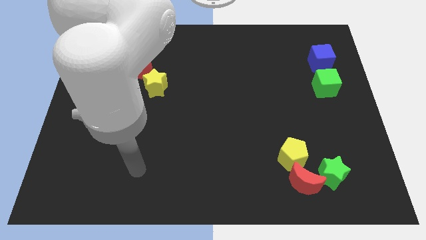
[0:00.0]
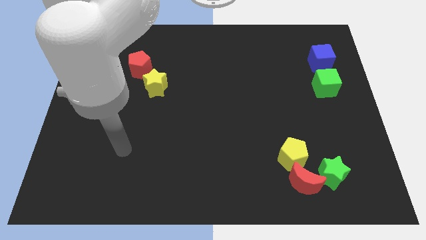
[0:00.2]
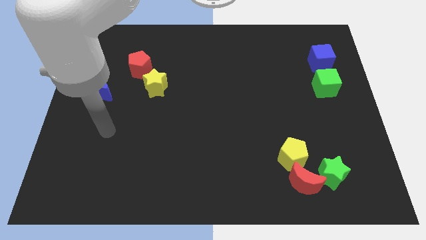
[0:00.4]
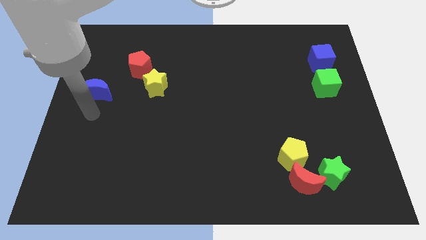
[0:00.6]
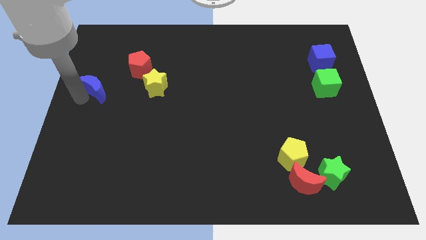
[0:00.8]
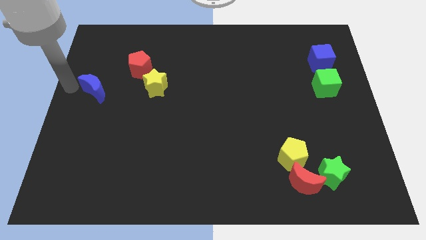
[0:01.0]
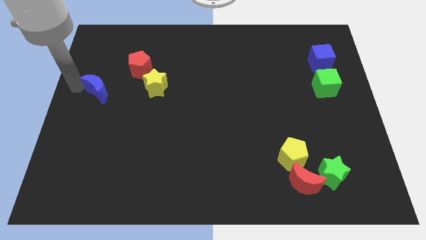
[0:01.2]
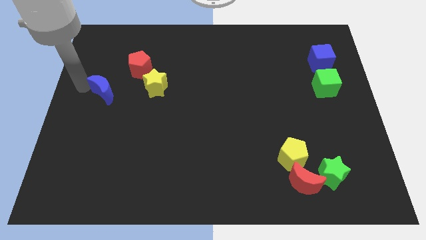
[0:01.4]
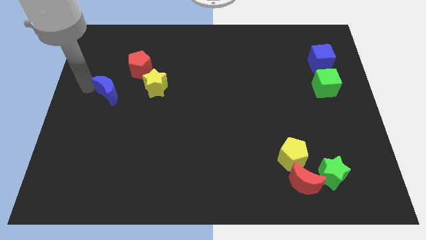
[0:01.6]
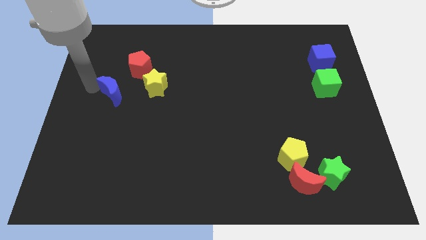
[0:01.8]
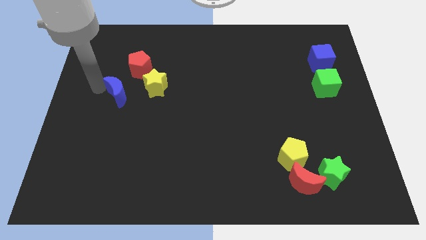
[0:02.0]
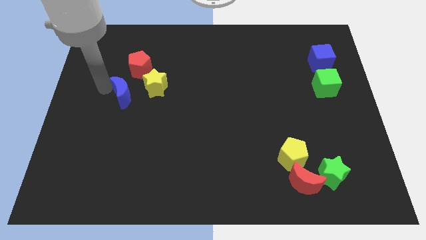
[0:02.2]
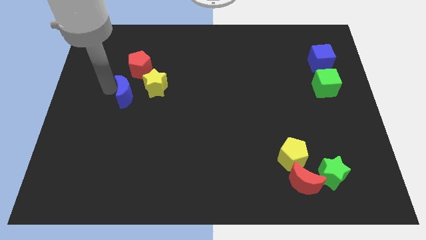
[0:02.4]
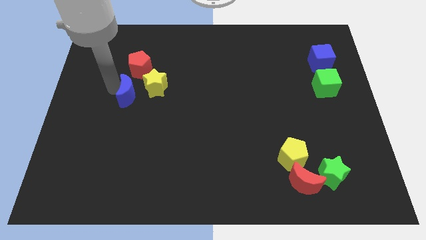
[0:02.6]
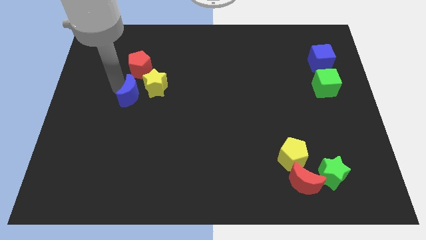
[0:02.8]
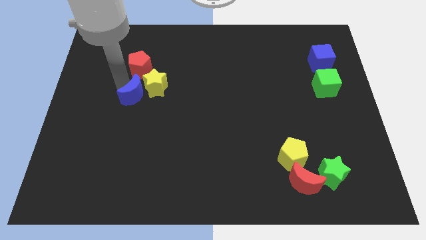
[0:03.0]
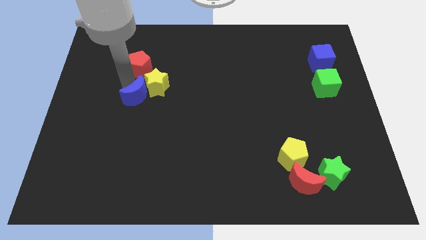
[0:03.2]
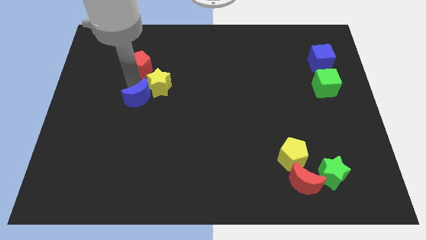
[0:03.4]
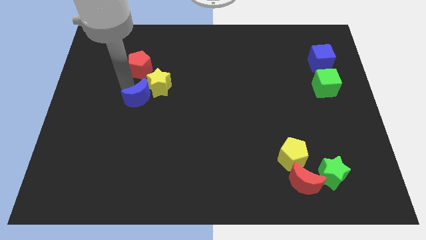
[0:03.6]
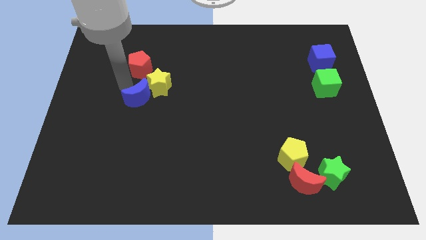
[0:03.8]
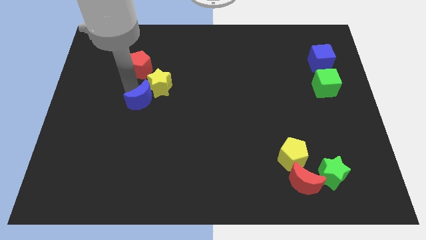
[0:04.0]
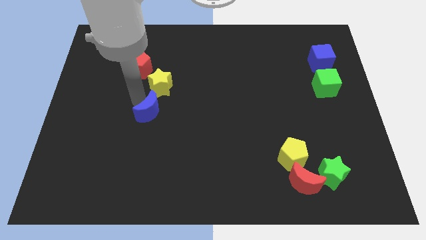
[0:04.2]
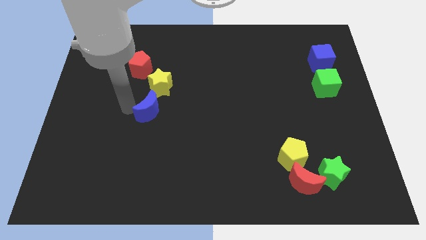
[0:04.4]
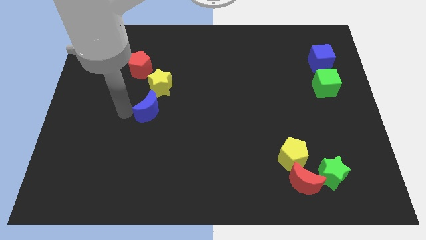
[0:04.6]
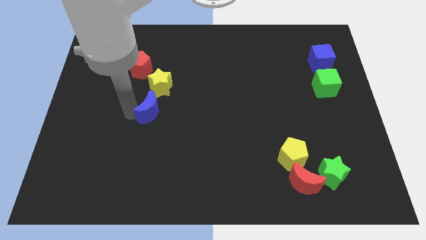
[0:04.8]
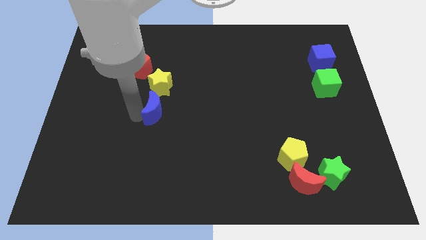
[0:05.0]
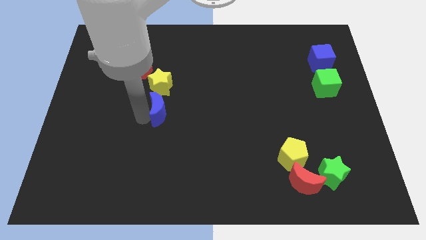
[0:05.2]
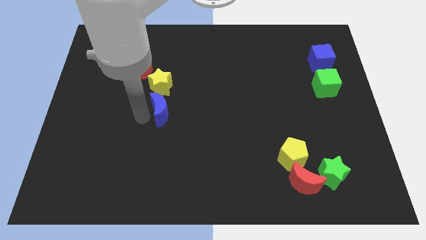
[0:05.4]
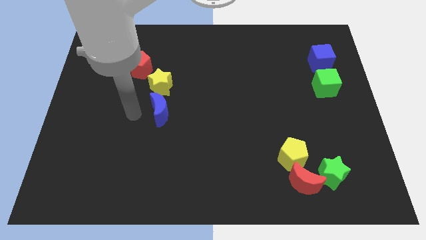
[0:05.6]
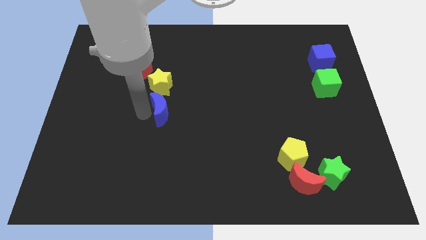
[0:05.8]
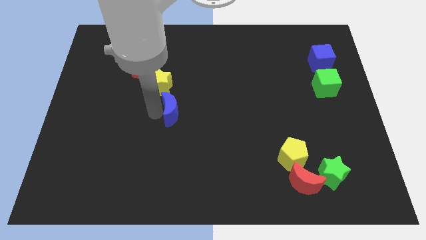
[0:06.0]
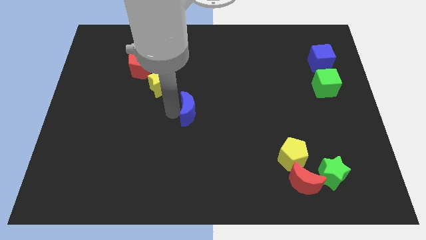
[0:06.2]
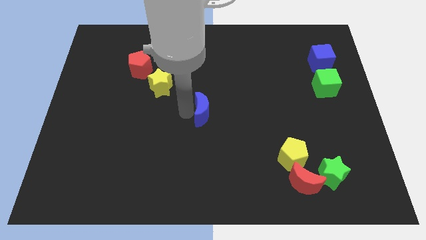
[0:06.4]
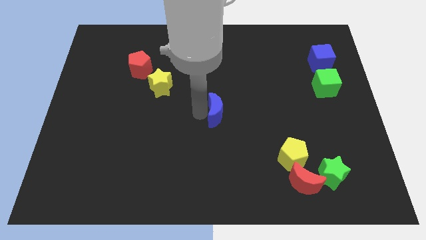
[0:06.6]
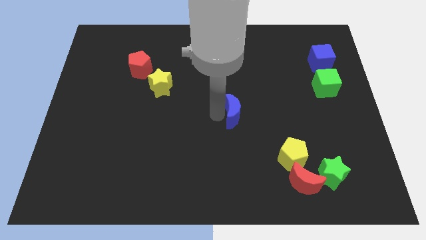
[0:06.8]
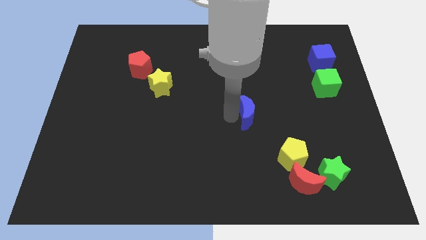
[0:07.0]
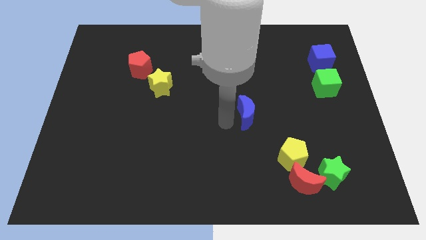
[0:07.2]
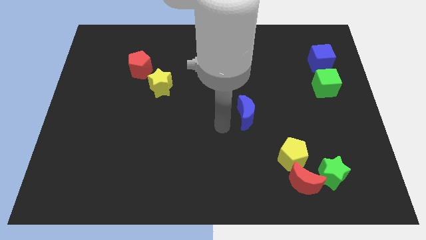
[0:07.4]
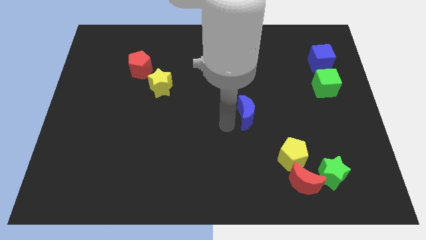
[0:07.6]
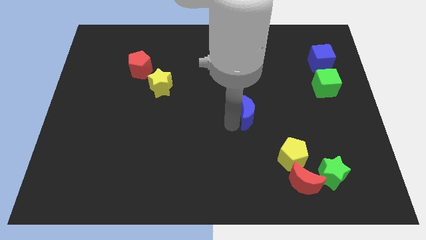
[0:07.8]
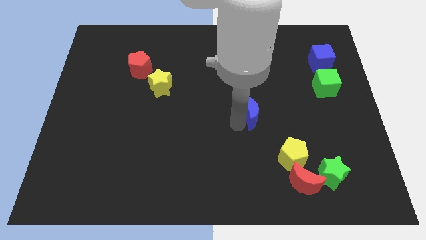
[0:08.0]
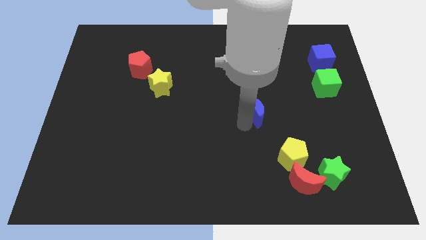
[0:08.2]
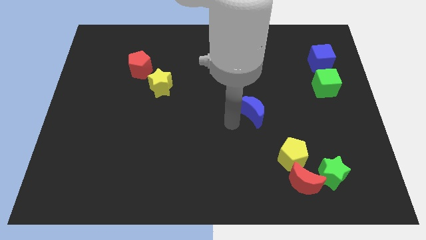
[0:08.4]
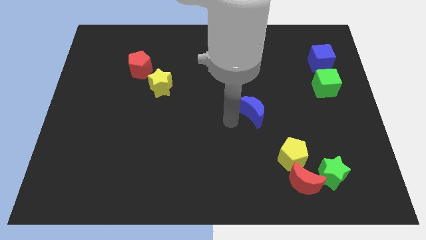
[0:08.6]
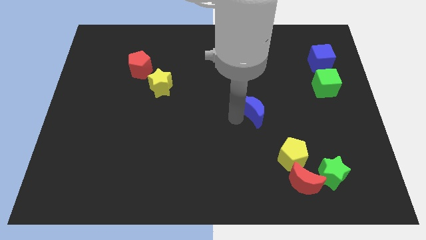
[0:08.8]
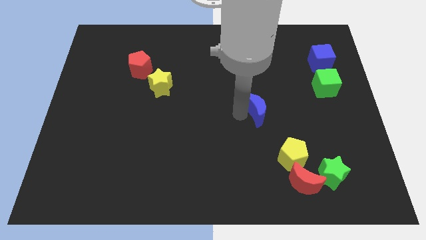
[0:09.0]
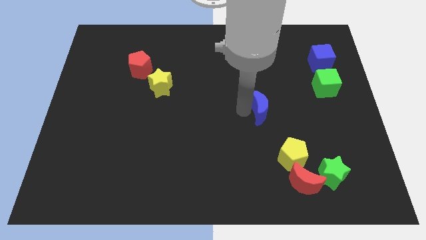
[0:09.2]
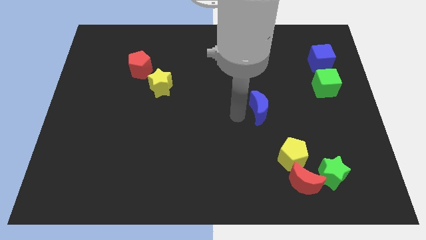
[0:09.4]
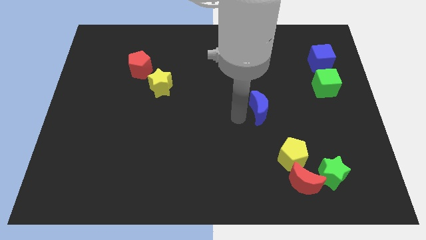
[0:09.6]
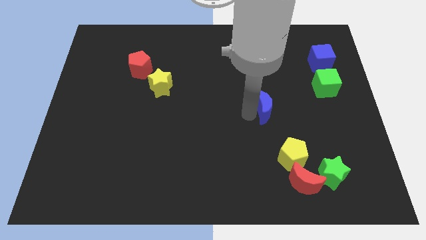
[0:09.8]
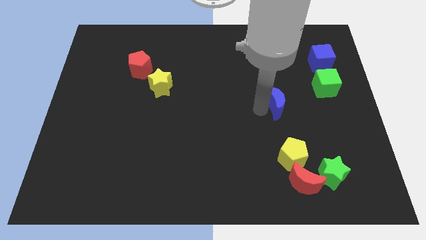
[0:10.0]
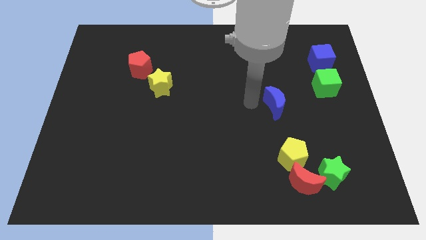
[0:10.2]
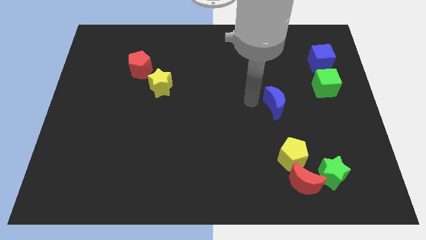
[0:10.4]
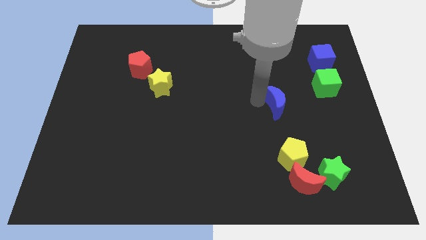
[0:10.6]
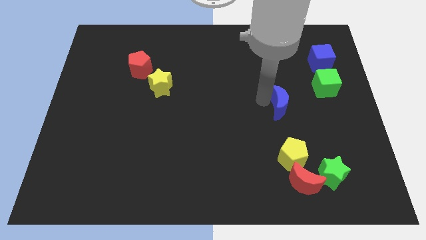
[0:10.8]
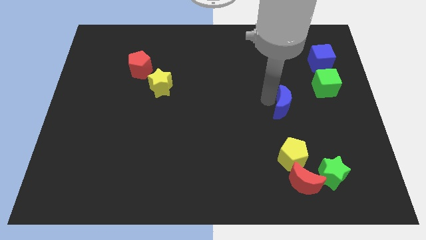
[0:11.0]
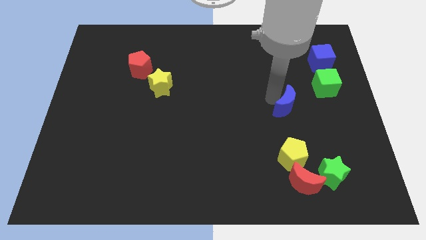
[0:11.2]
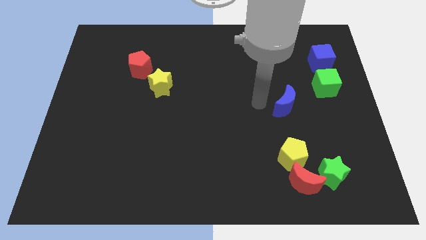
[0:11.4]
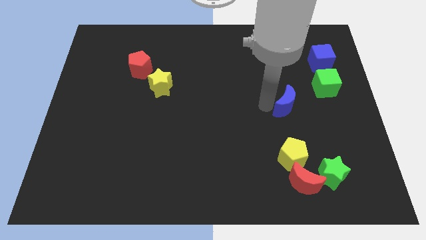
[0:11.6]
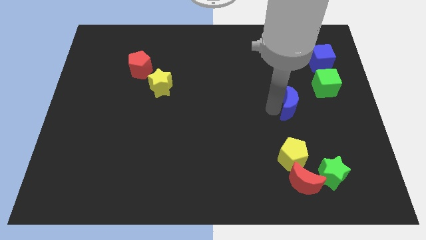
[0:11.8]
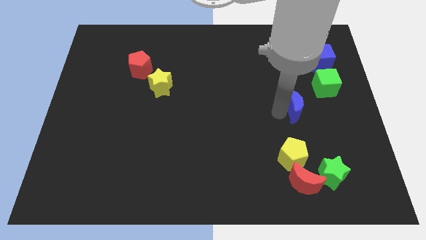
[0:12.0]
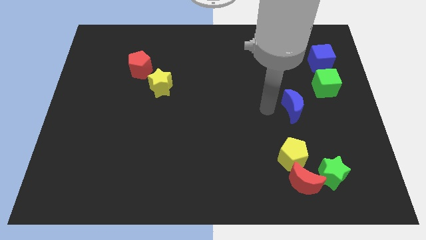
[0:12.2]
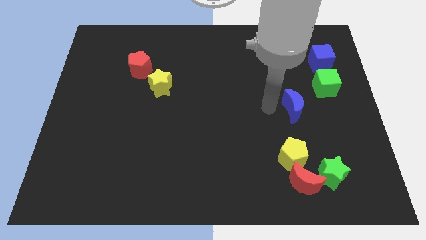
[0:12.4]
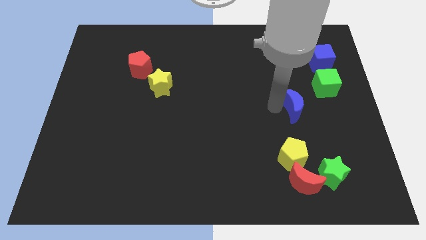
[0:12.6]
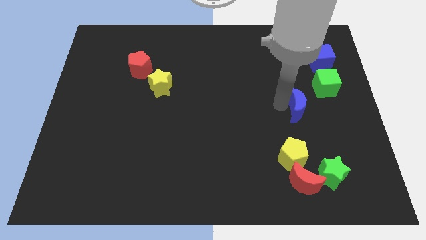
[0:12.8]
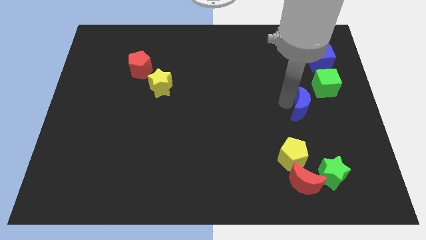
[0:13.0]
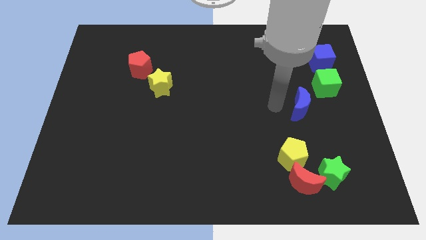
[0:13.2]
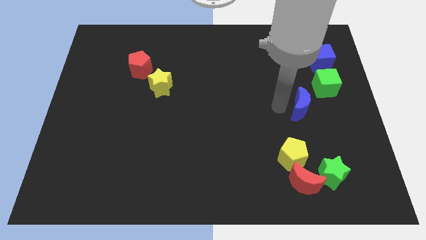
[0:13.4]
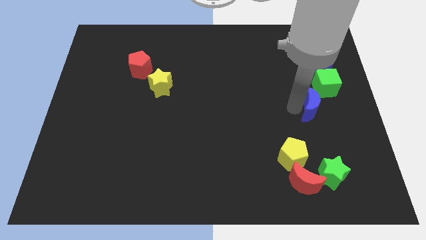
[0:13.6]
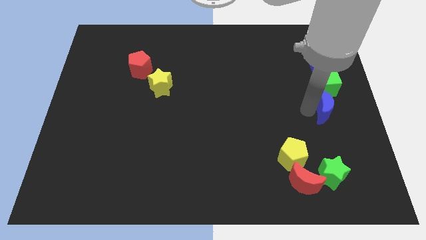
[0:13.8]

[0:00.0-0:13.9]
slide the blue moon to the right side of the board
